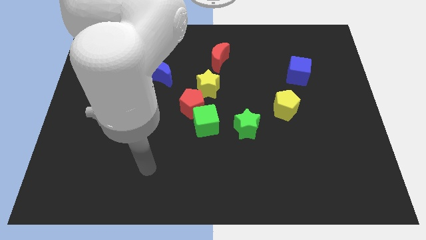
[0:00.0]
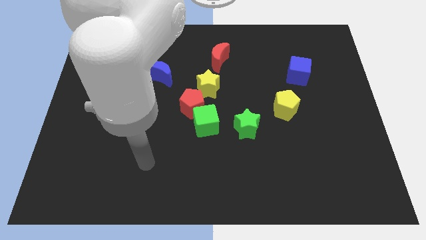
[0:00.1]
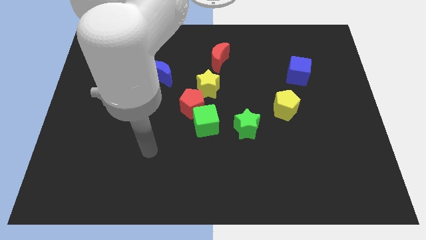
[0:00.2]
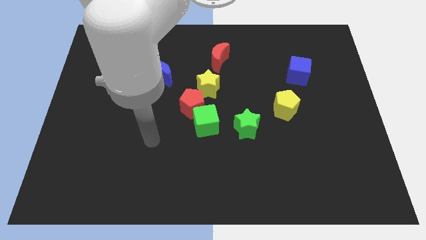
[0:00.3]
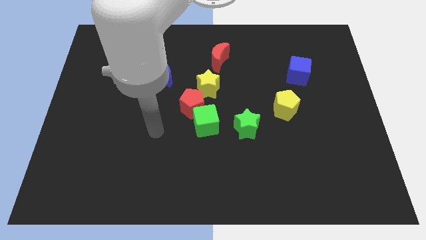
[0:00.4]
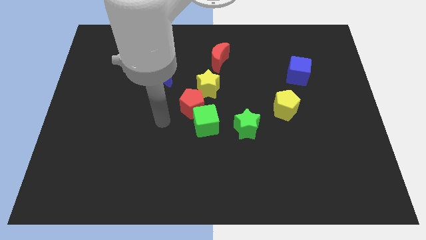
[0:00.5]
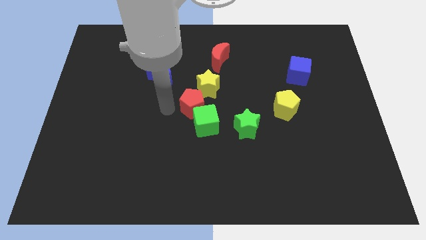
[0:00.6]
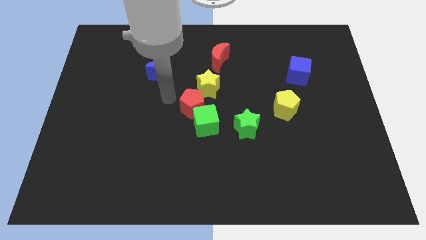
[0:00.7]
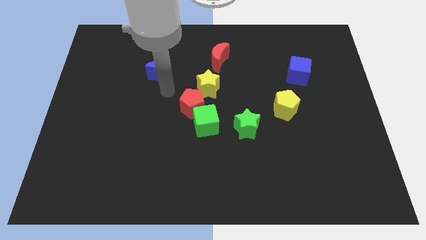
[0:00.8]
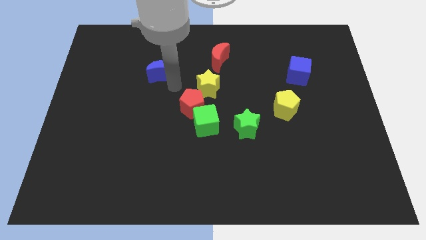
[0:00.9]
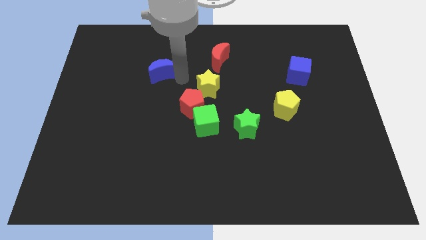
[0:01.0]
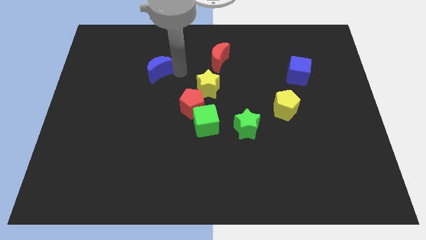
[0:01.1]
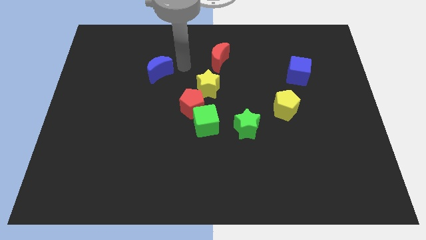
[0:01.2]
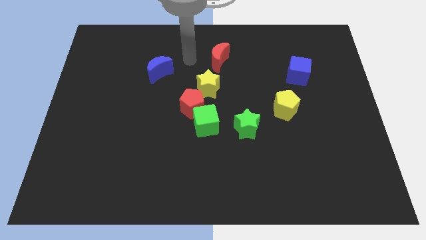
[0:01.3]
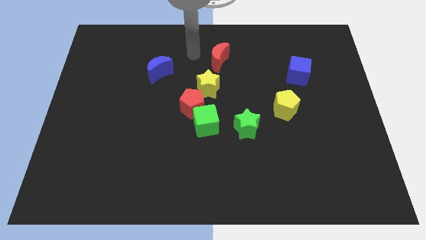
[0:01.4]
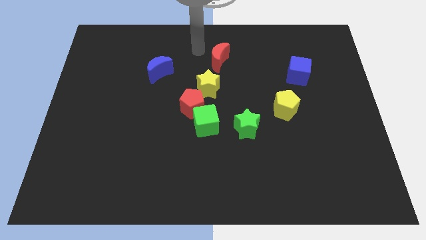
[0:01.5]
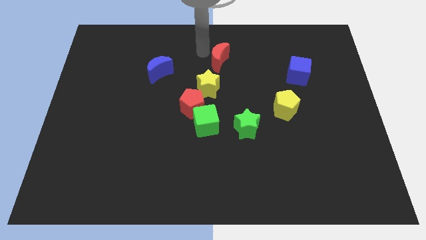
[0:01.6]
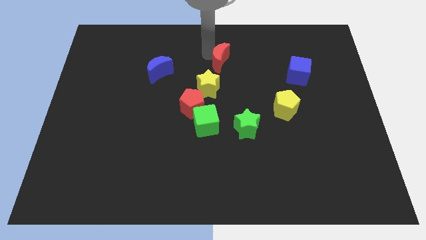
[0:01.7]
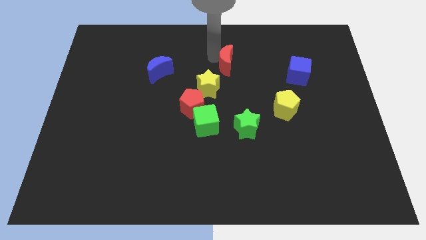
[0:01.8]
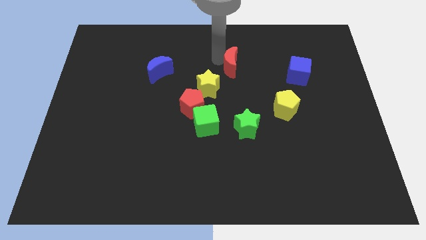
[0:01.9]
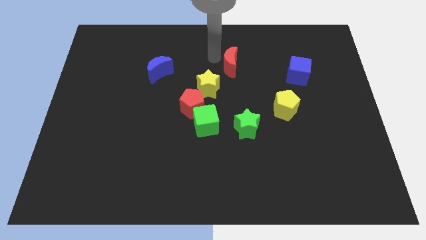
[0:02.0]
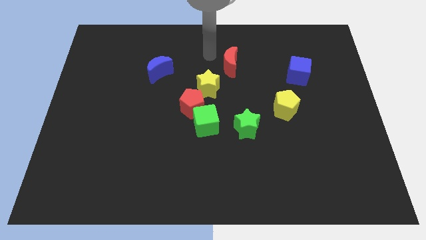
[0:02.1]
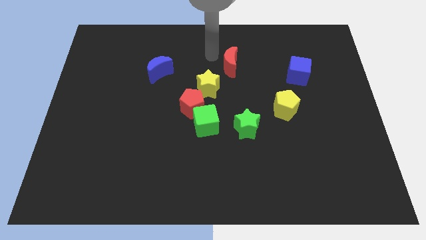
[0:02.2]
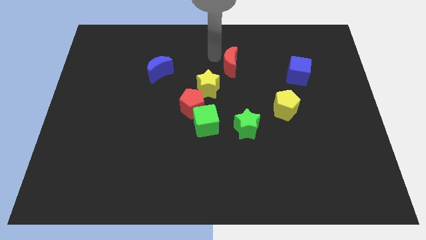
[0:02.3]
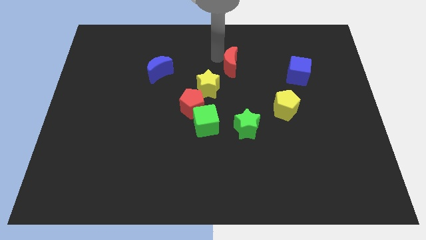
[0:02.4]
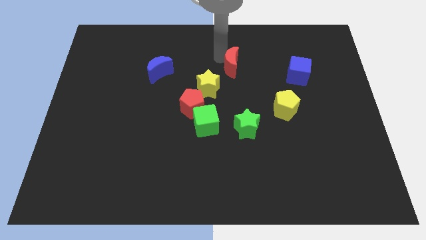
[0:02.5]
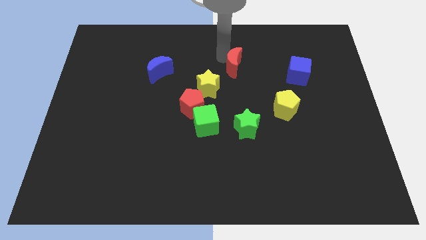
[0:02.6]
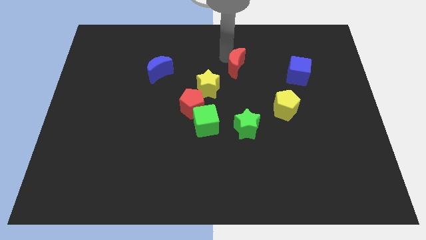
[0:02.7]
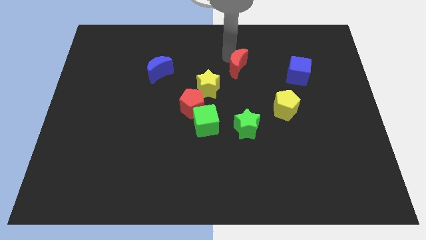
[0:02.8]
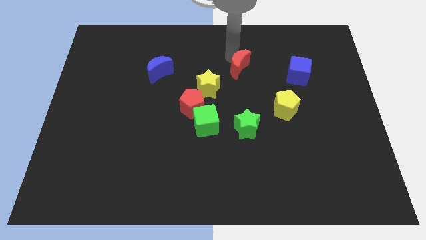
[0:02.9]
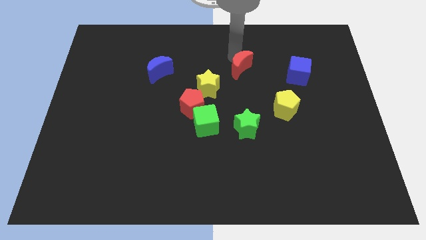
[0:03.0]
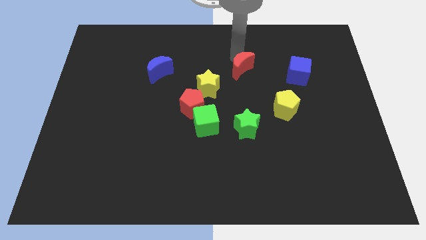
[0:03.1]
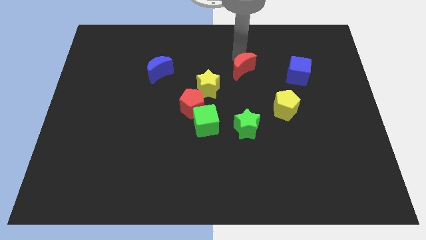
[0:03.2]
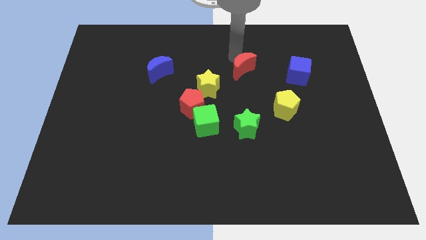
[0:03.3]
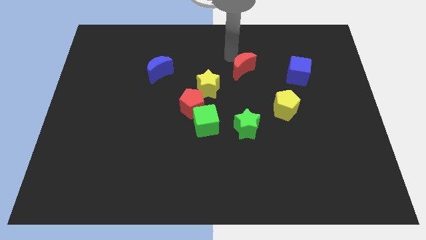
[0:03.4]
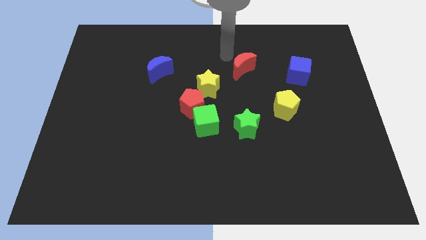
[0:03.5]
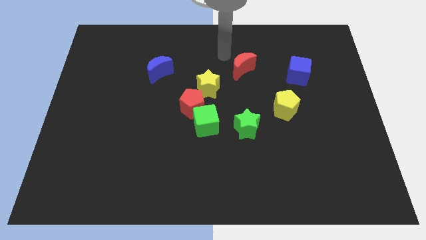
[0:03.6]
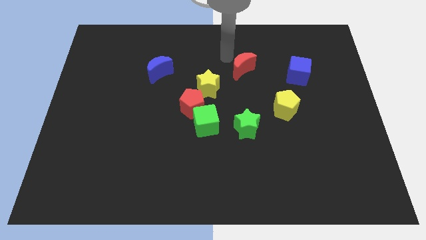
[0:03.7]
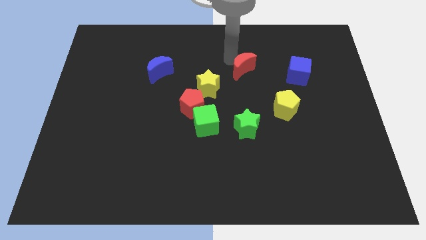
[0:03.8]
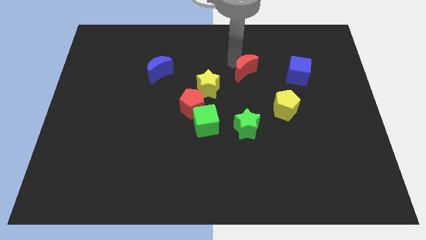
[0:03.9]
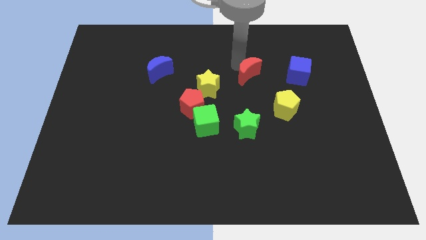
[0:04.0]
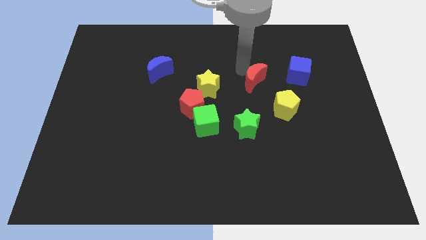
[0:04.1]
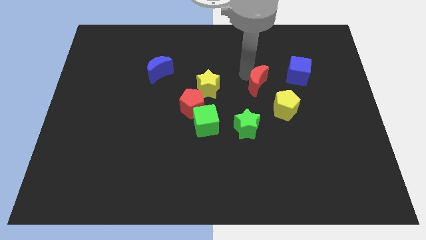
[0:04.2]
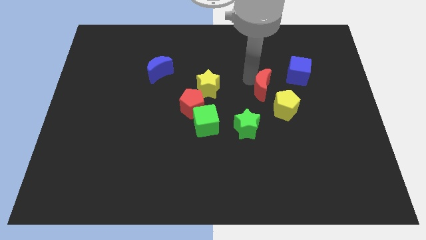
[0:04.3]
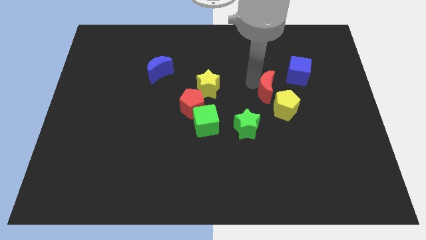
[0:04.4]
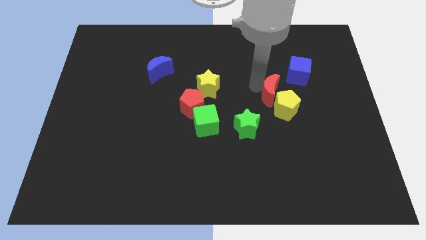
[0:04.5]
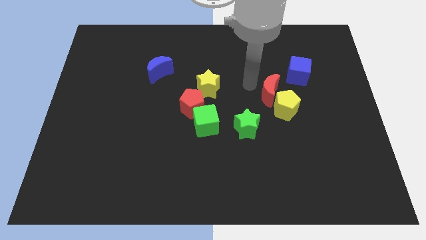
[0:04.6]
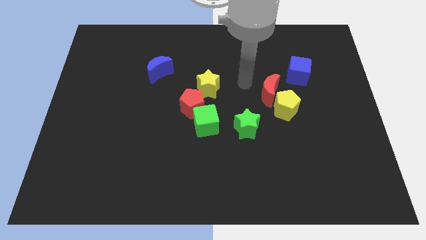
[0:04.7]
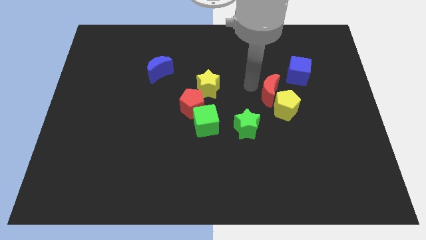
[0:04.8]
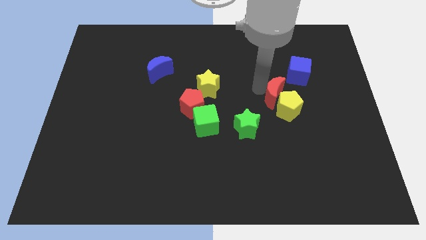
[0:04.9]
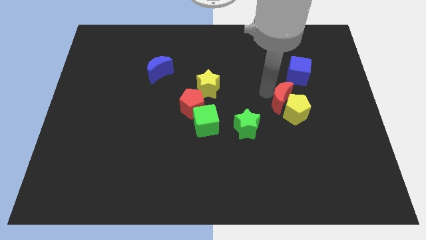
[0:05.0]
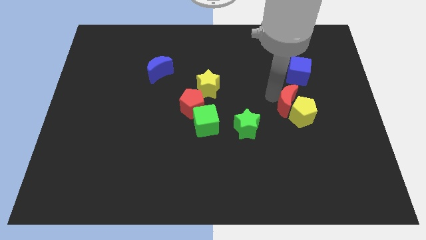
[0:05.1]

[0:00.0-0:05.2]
slide the red moon to the bottom of the blue cube

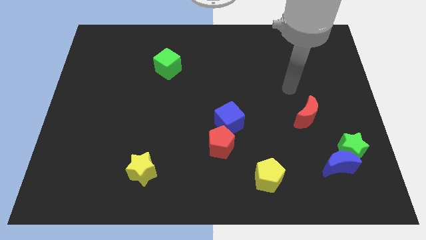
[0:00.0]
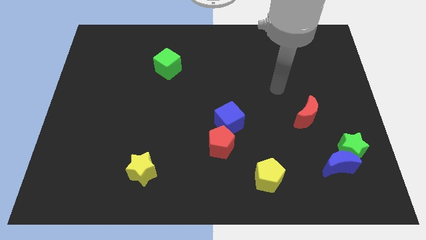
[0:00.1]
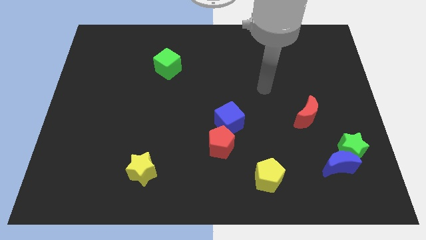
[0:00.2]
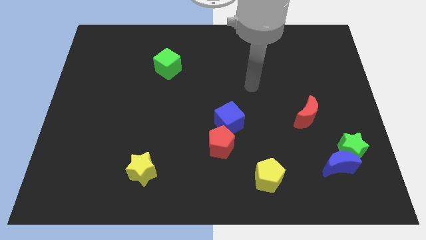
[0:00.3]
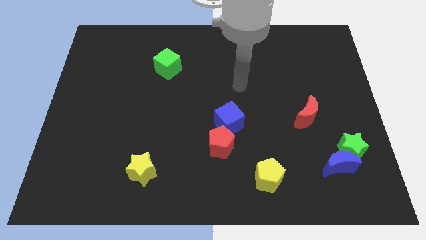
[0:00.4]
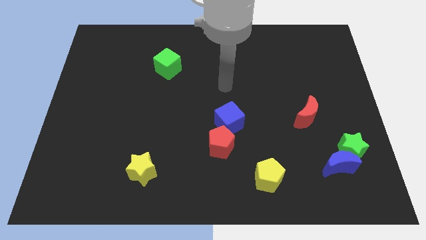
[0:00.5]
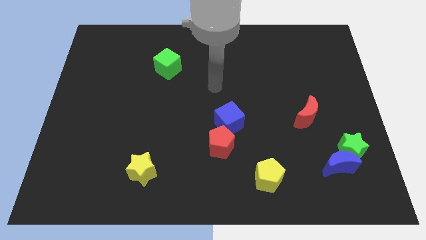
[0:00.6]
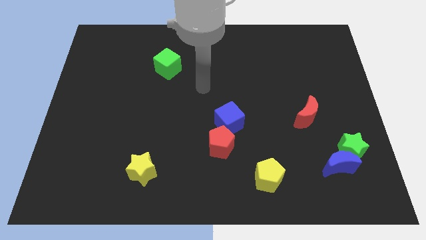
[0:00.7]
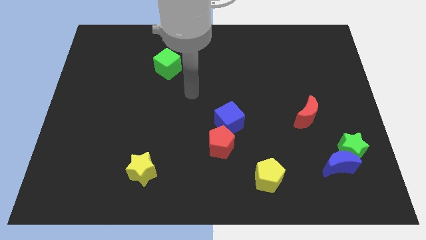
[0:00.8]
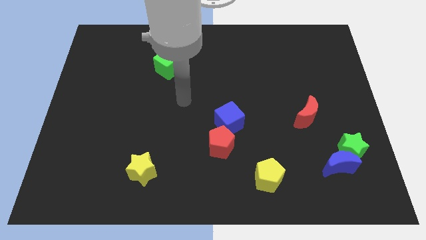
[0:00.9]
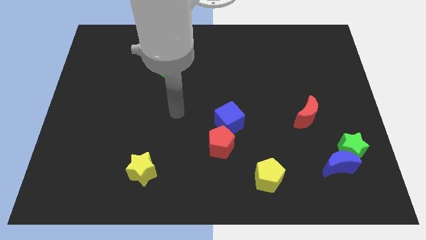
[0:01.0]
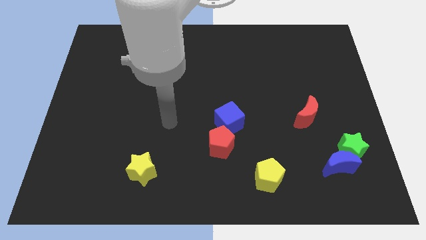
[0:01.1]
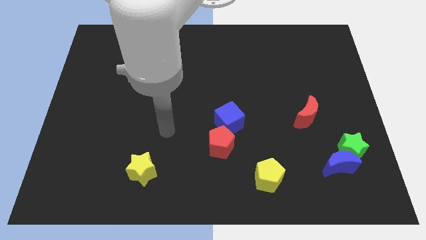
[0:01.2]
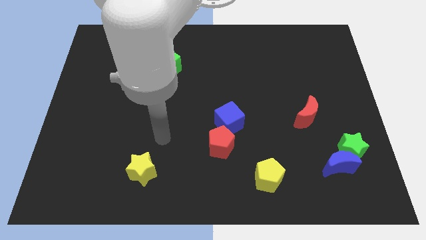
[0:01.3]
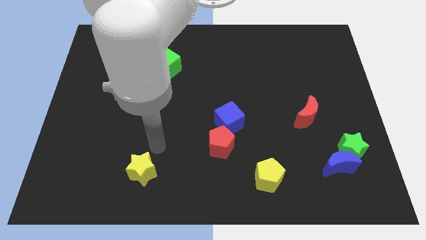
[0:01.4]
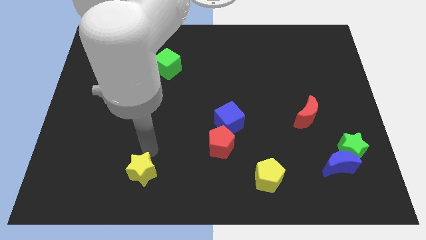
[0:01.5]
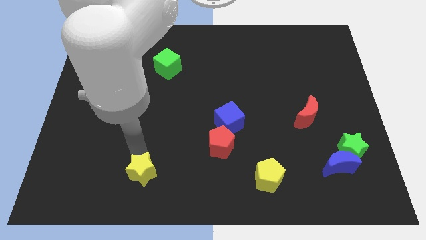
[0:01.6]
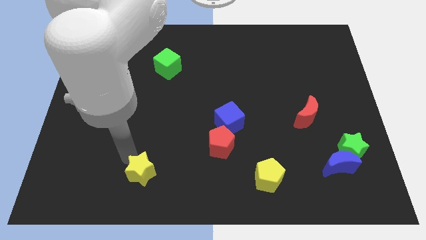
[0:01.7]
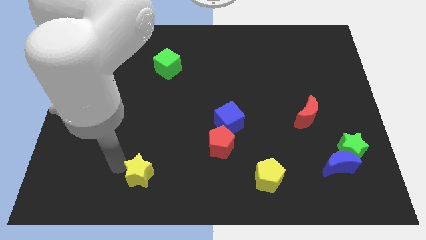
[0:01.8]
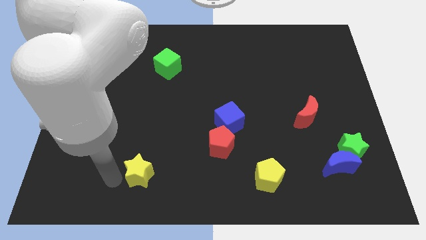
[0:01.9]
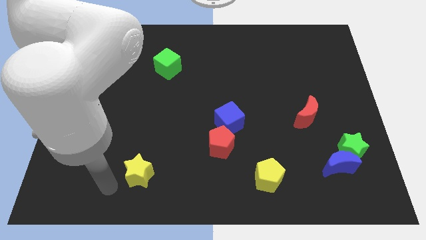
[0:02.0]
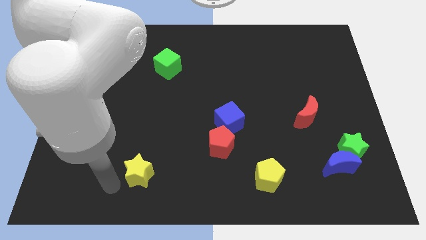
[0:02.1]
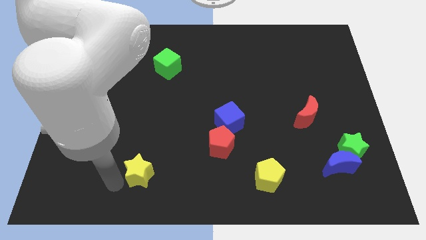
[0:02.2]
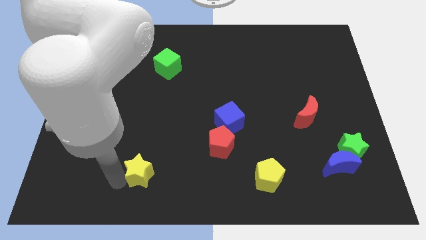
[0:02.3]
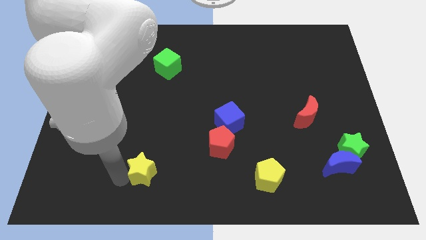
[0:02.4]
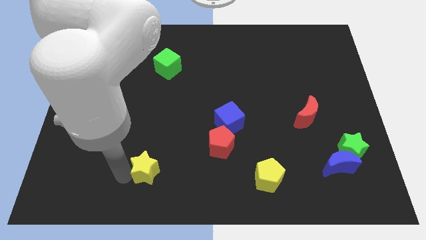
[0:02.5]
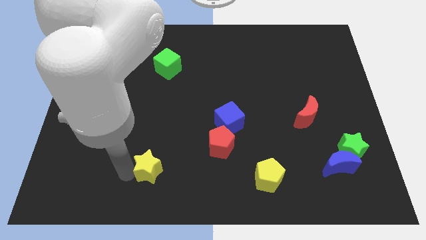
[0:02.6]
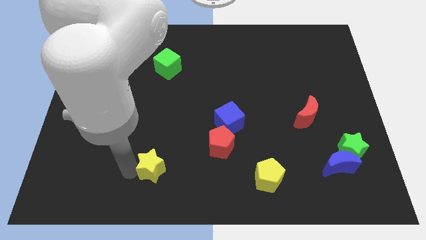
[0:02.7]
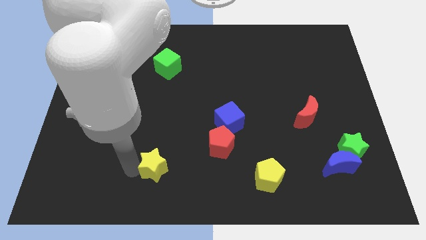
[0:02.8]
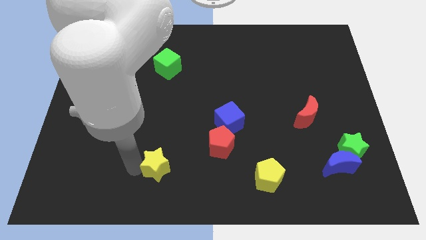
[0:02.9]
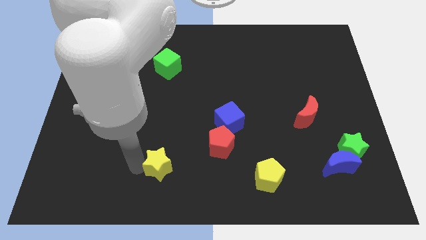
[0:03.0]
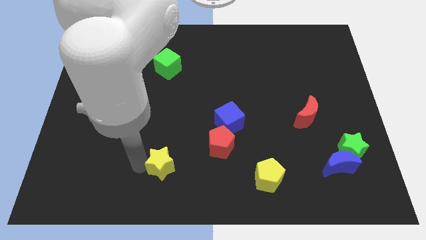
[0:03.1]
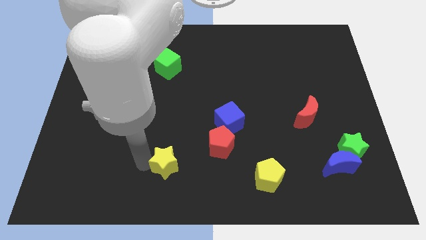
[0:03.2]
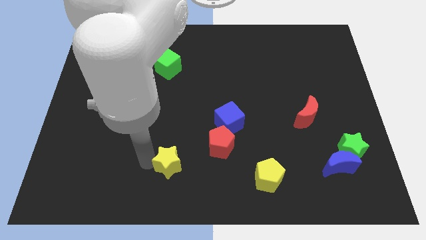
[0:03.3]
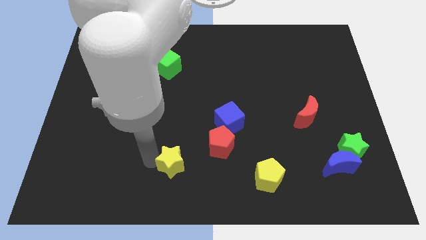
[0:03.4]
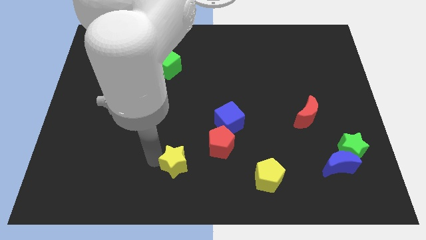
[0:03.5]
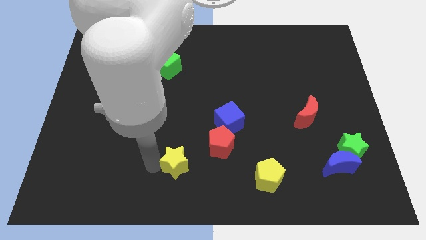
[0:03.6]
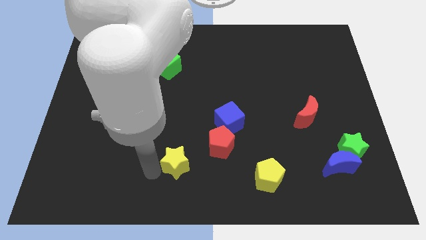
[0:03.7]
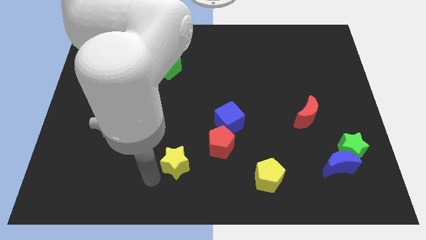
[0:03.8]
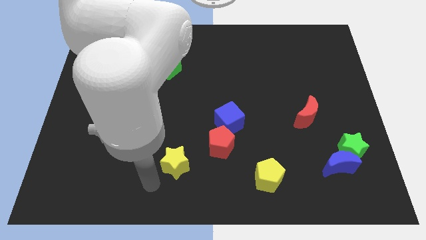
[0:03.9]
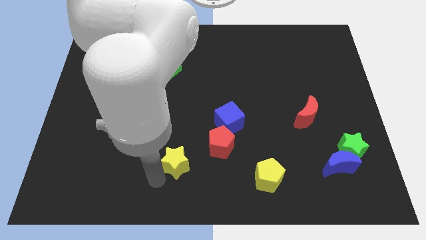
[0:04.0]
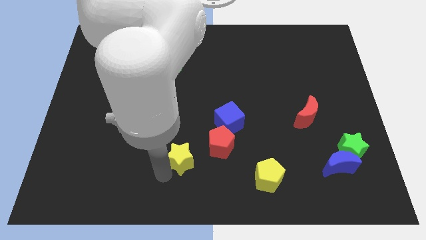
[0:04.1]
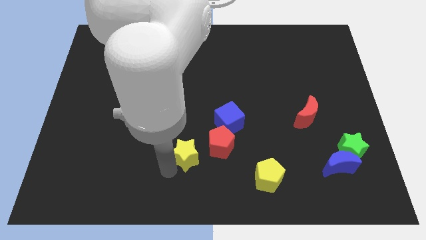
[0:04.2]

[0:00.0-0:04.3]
slide the yellow star to the bottom left side of the blue cube
